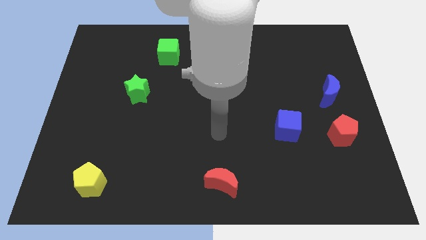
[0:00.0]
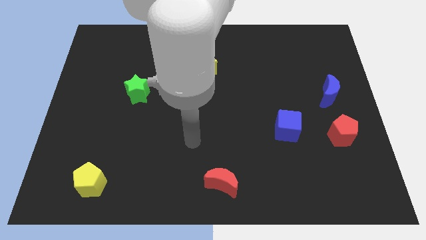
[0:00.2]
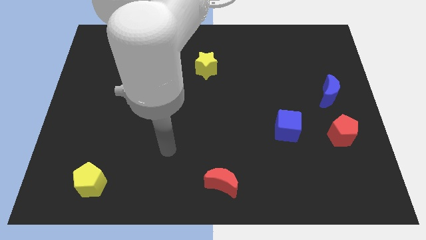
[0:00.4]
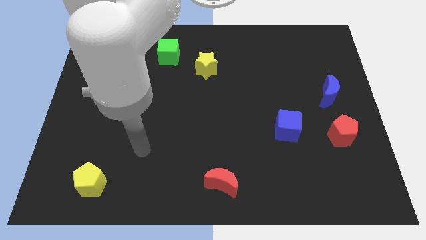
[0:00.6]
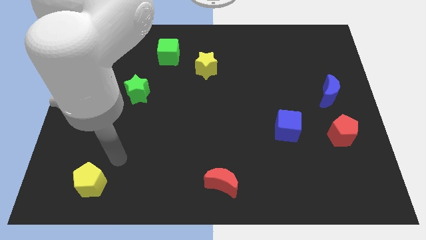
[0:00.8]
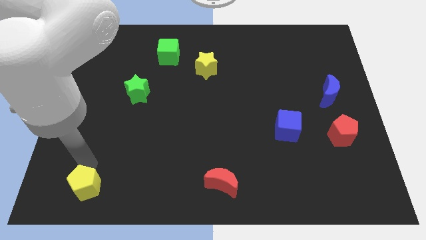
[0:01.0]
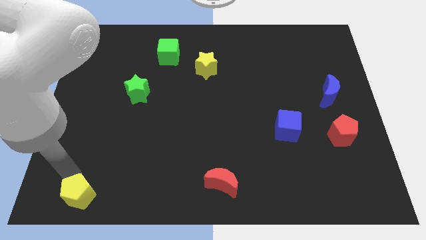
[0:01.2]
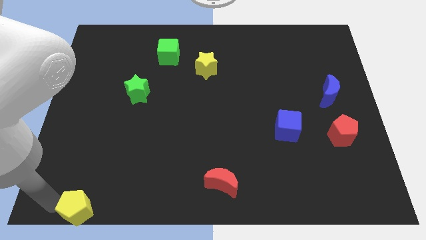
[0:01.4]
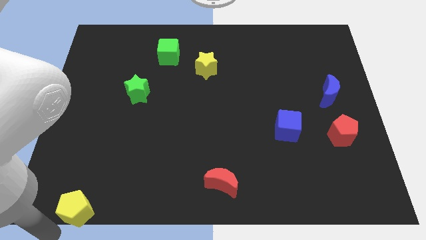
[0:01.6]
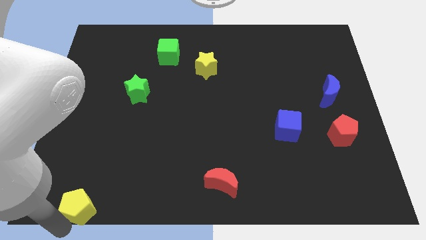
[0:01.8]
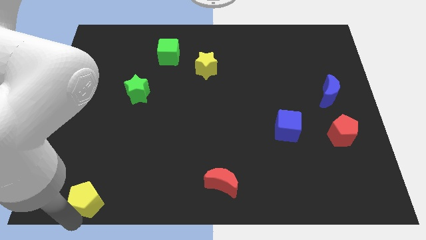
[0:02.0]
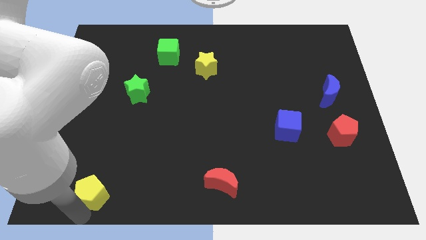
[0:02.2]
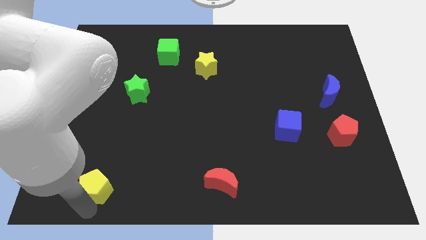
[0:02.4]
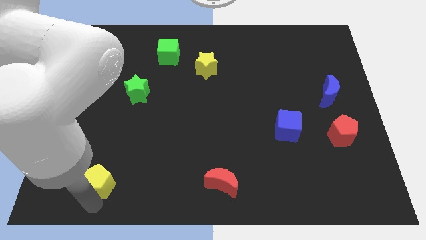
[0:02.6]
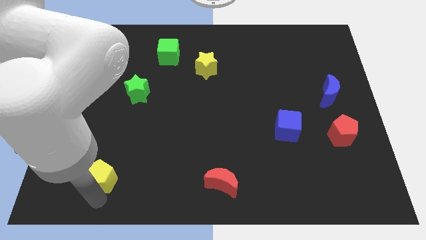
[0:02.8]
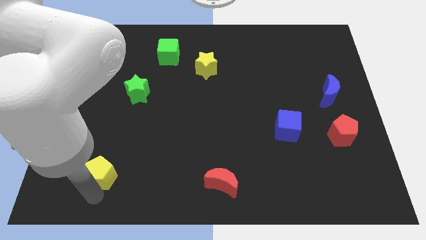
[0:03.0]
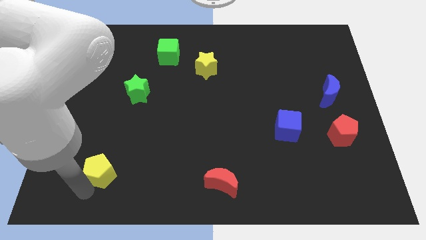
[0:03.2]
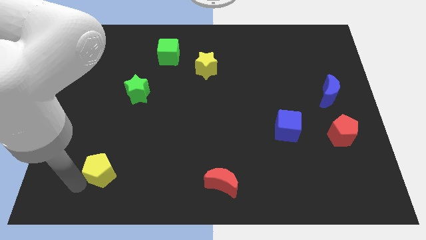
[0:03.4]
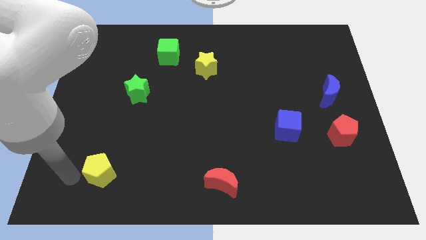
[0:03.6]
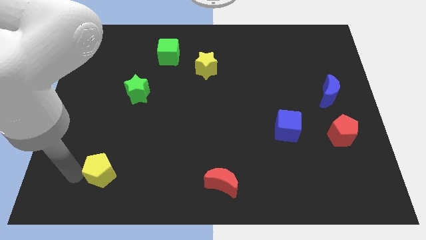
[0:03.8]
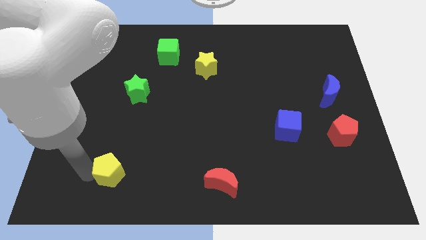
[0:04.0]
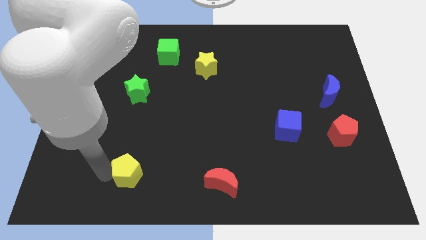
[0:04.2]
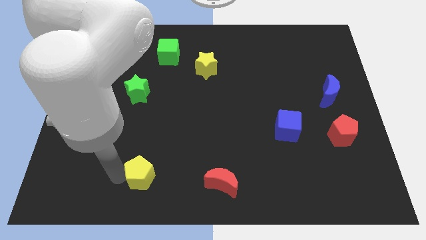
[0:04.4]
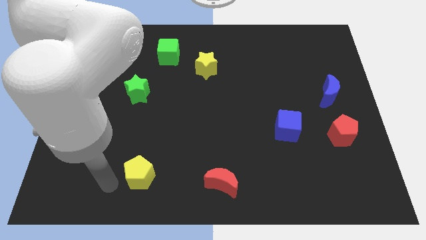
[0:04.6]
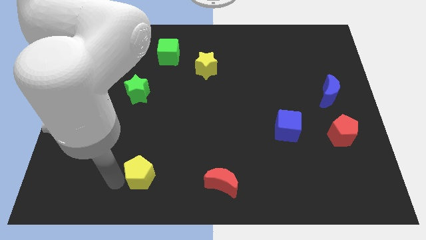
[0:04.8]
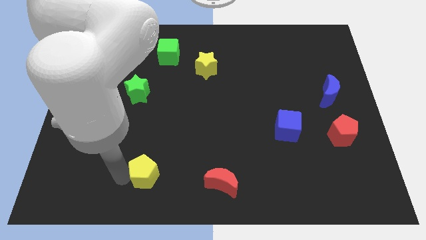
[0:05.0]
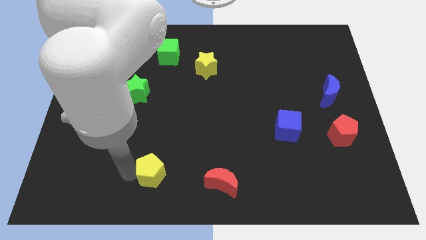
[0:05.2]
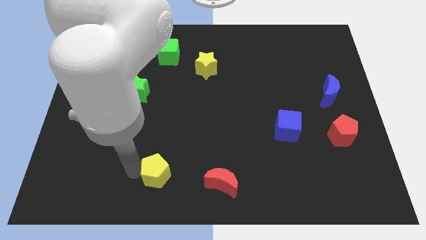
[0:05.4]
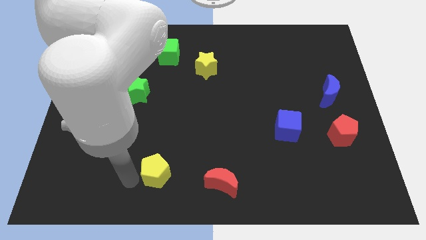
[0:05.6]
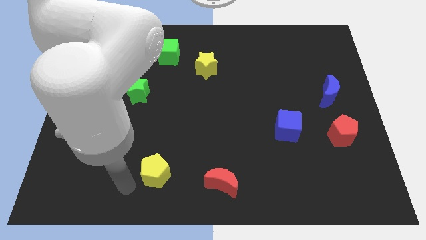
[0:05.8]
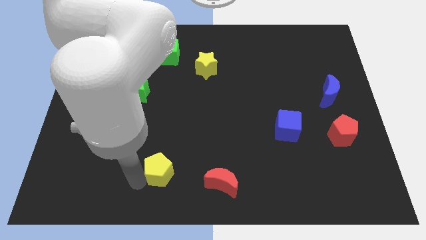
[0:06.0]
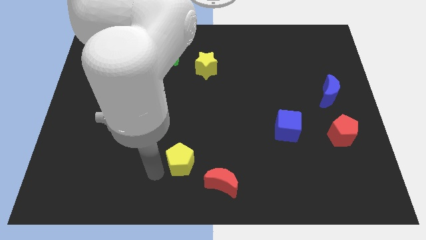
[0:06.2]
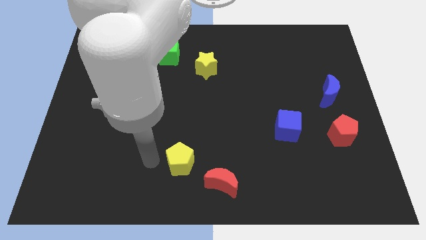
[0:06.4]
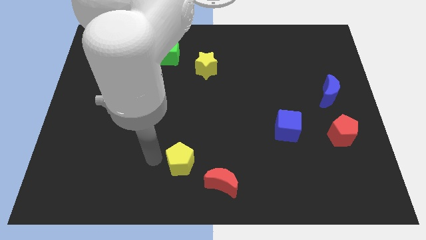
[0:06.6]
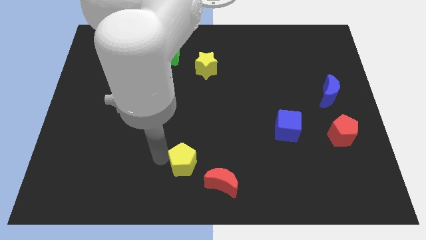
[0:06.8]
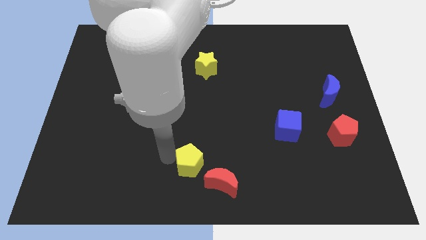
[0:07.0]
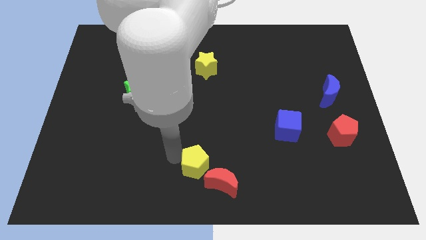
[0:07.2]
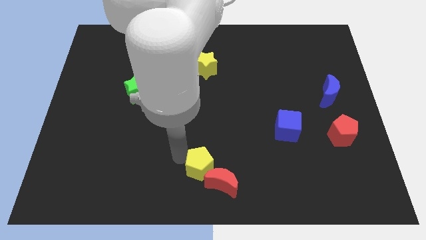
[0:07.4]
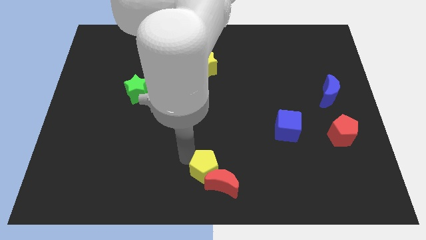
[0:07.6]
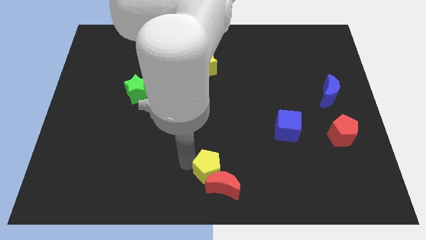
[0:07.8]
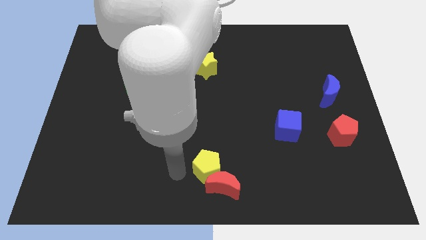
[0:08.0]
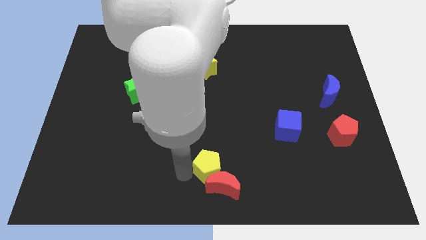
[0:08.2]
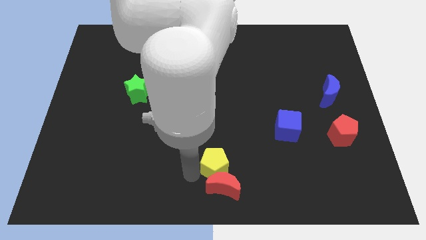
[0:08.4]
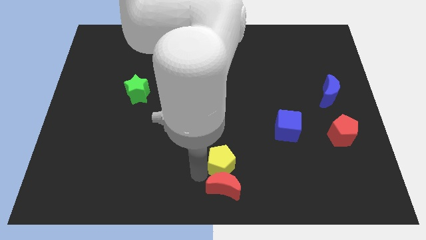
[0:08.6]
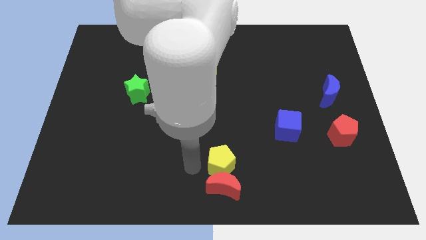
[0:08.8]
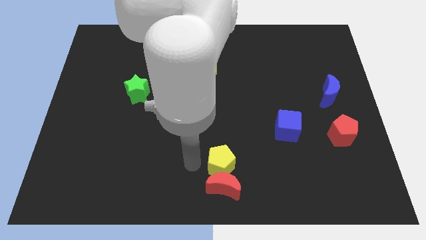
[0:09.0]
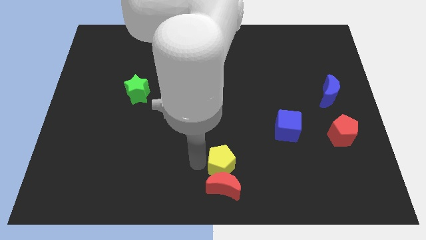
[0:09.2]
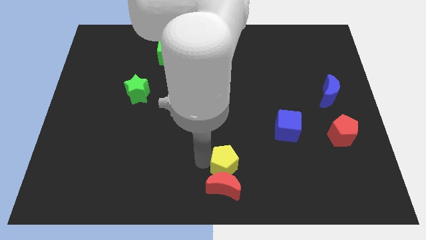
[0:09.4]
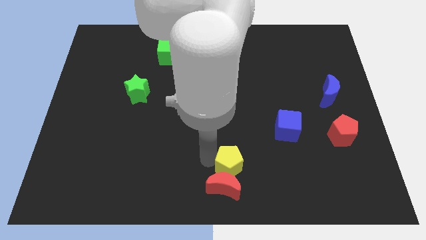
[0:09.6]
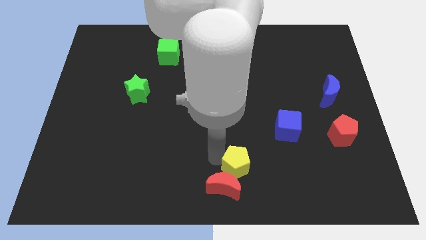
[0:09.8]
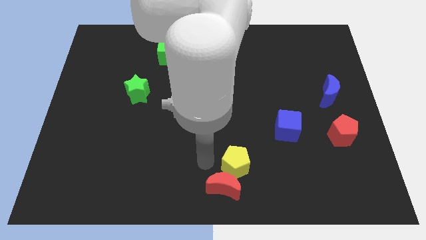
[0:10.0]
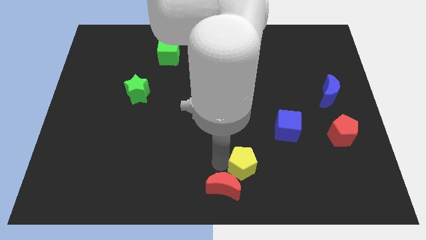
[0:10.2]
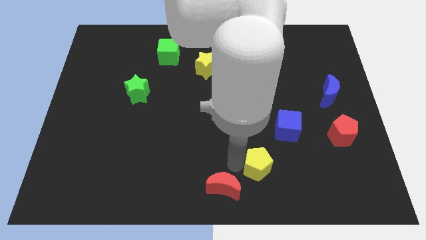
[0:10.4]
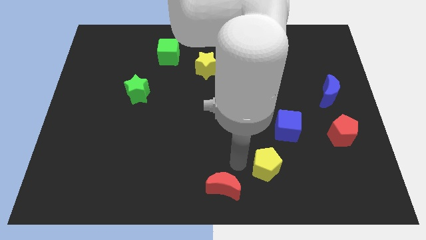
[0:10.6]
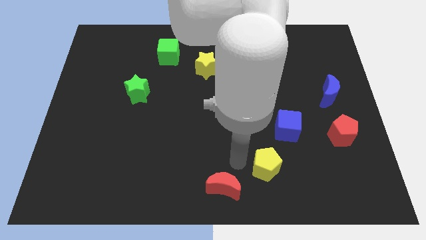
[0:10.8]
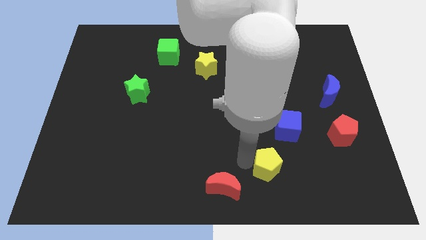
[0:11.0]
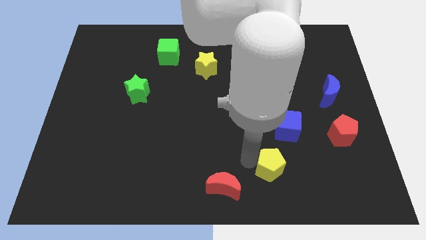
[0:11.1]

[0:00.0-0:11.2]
put the yellow pentagon to the bottom side of the blue cube

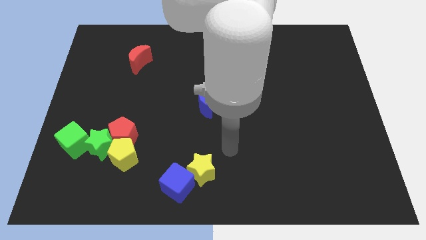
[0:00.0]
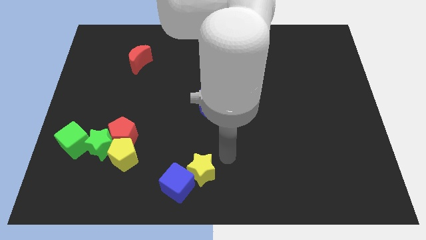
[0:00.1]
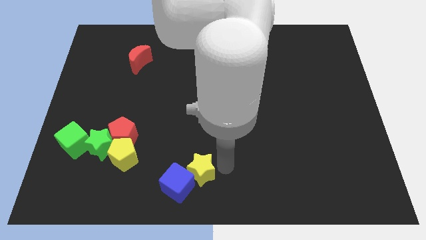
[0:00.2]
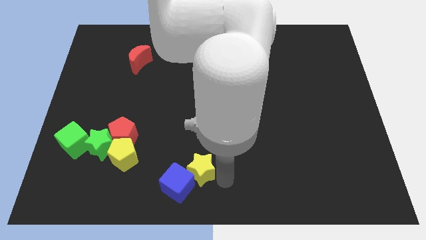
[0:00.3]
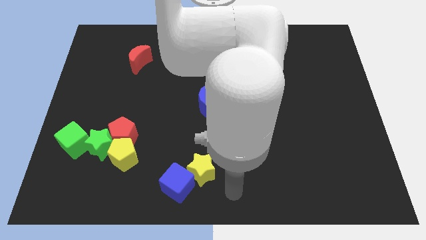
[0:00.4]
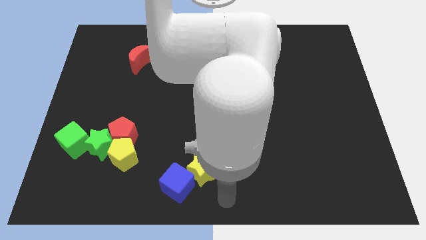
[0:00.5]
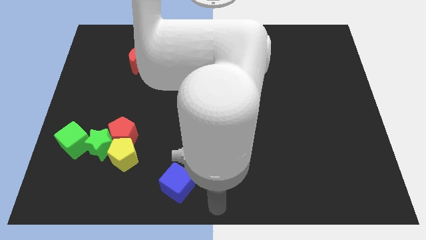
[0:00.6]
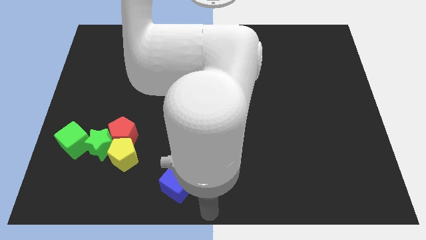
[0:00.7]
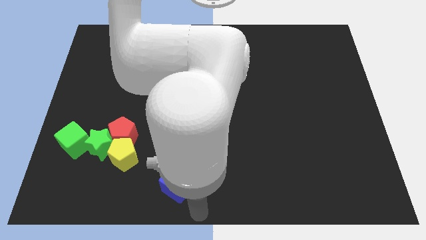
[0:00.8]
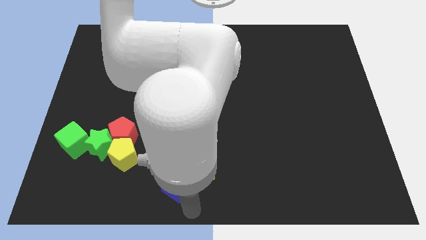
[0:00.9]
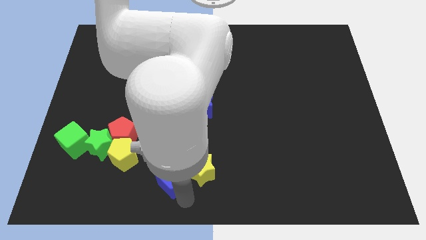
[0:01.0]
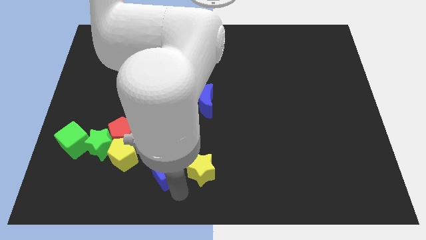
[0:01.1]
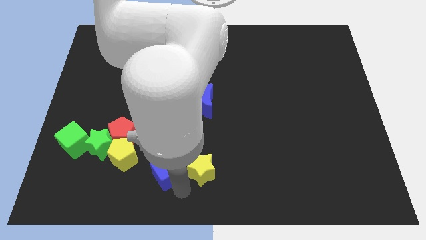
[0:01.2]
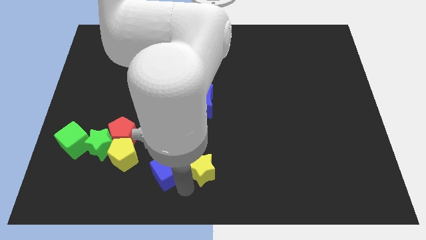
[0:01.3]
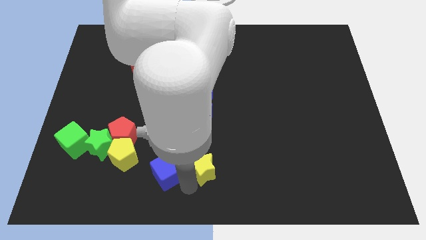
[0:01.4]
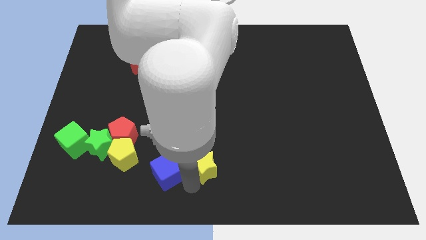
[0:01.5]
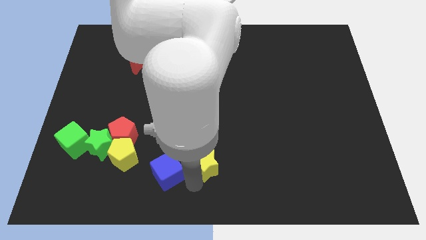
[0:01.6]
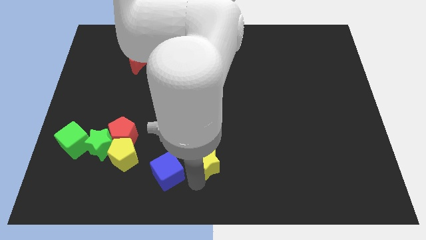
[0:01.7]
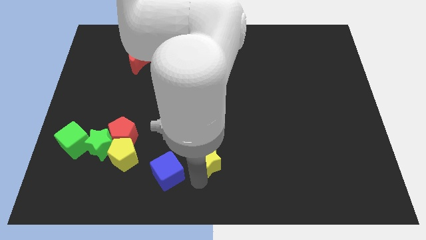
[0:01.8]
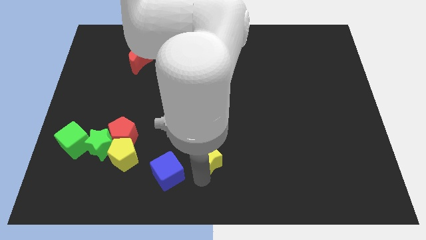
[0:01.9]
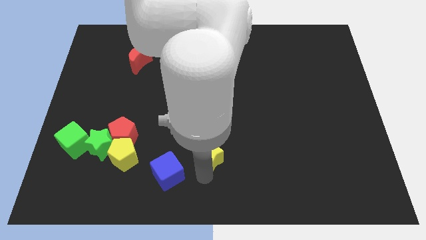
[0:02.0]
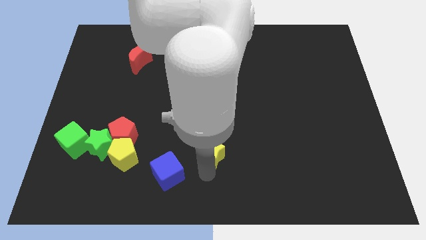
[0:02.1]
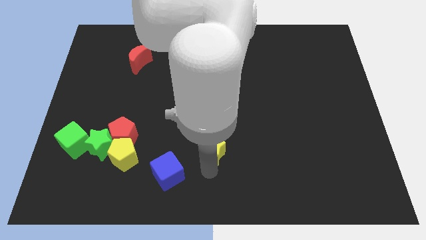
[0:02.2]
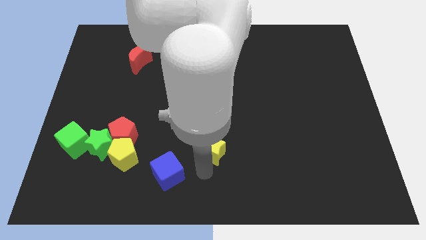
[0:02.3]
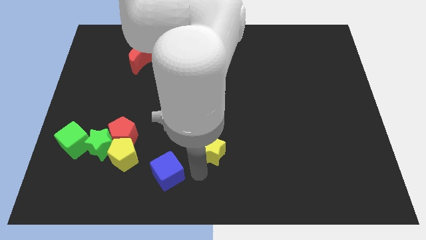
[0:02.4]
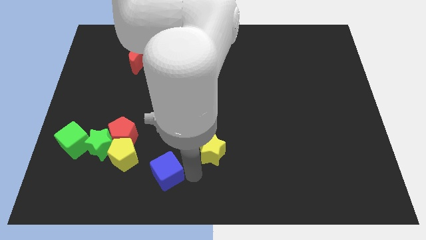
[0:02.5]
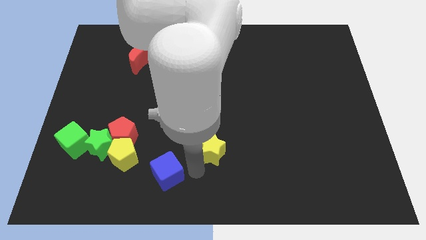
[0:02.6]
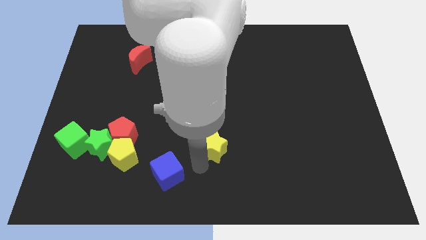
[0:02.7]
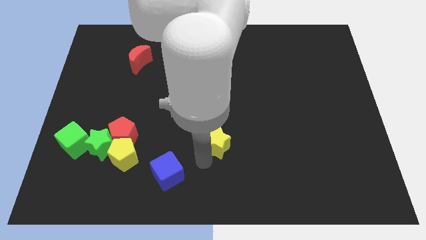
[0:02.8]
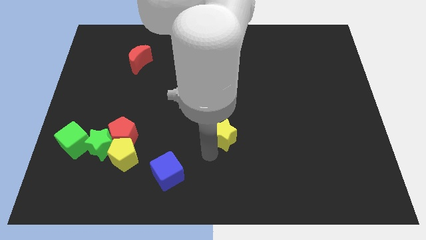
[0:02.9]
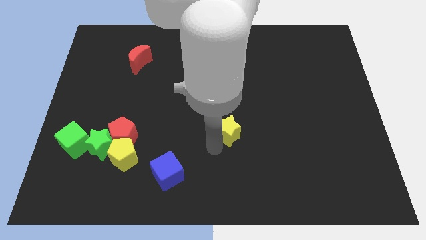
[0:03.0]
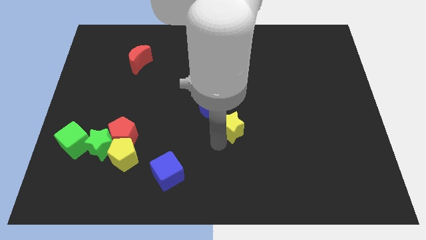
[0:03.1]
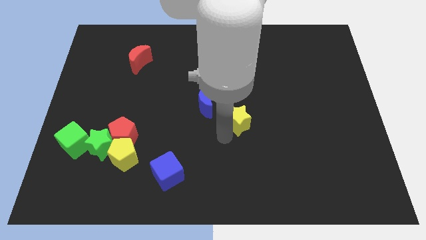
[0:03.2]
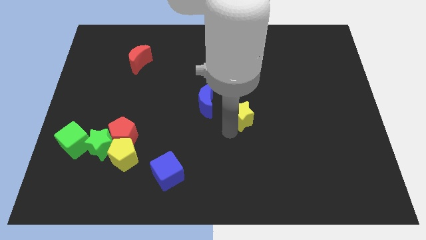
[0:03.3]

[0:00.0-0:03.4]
put the yellow star right of the blue moon
